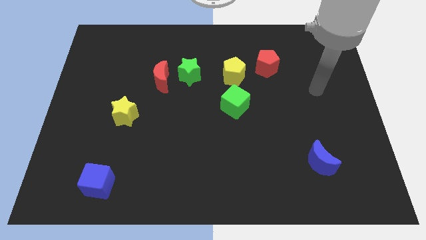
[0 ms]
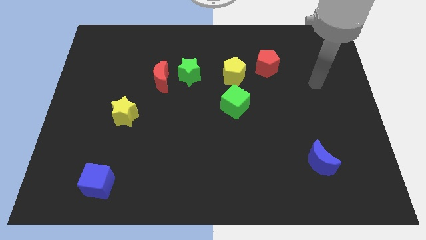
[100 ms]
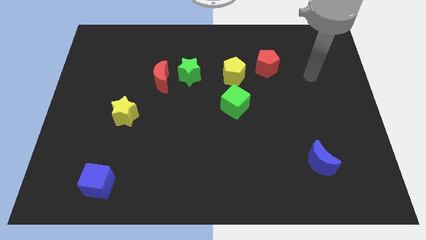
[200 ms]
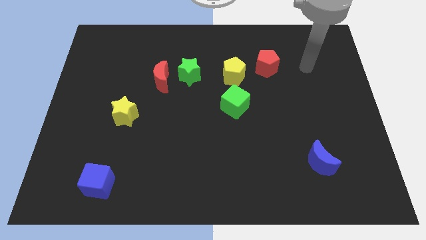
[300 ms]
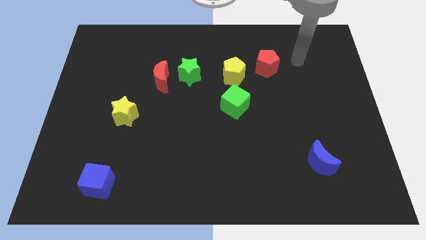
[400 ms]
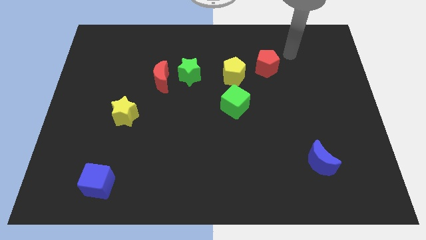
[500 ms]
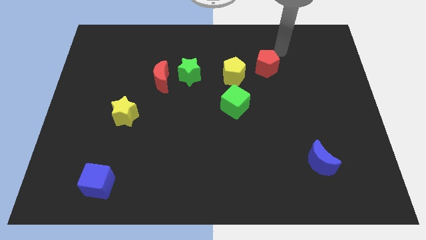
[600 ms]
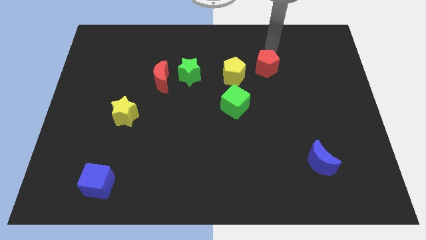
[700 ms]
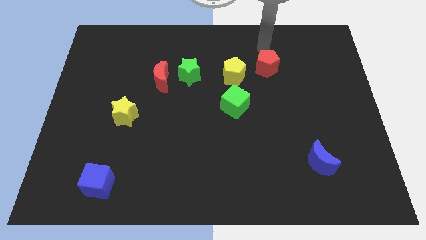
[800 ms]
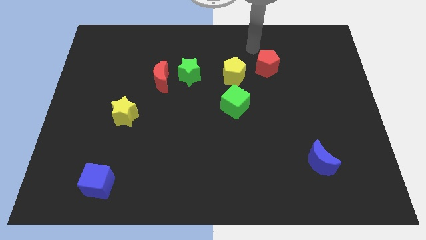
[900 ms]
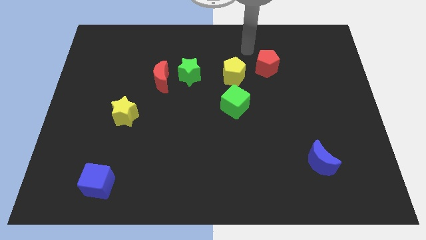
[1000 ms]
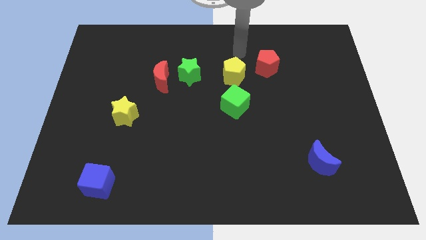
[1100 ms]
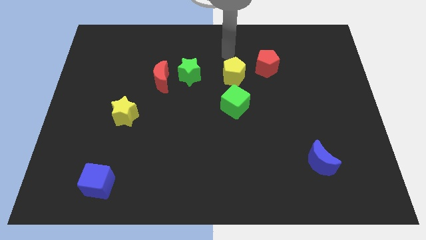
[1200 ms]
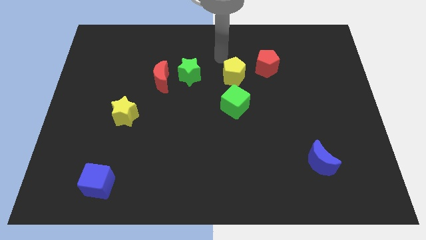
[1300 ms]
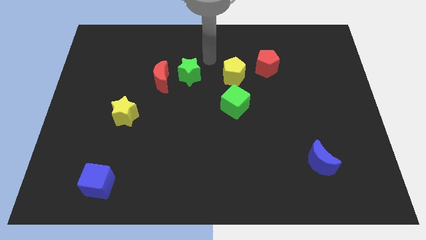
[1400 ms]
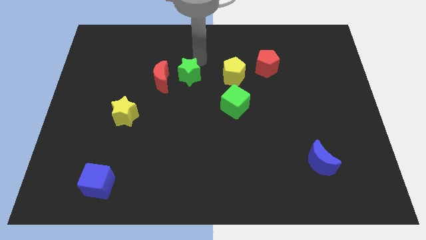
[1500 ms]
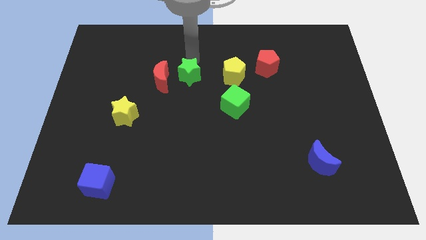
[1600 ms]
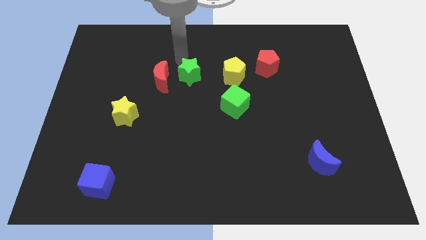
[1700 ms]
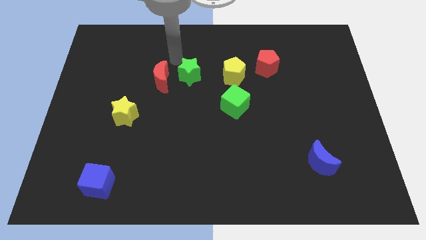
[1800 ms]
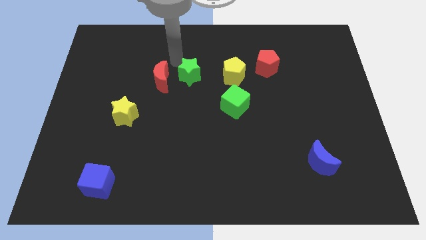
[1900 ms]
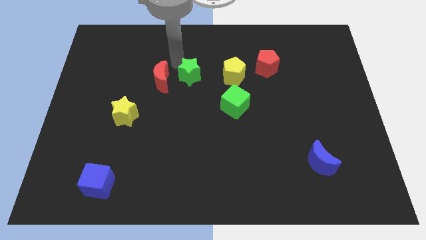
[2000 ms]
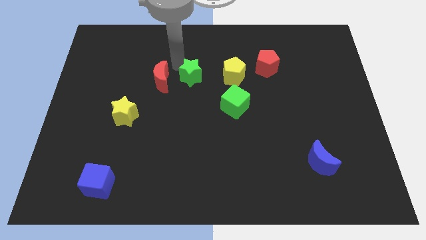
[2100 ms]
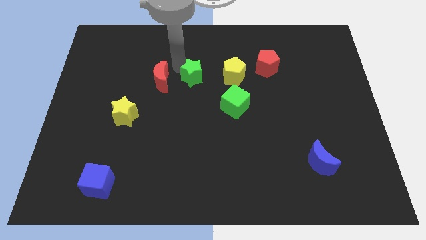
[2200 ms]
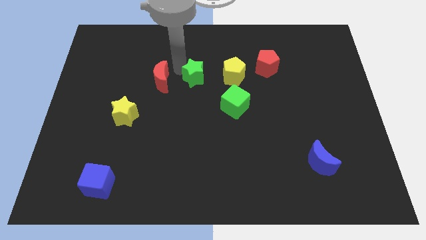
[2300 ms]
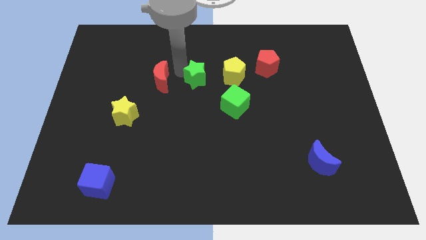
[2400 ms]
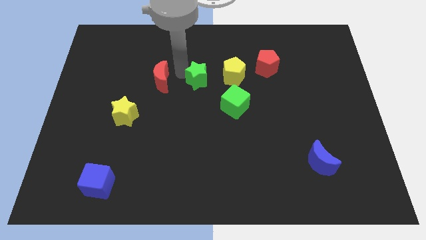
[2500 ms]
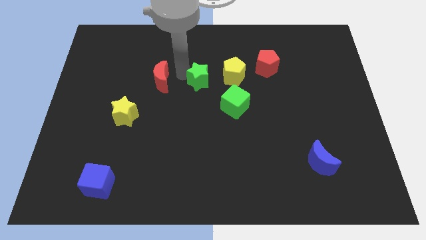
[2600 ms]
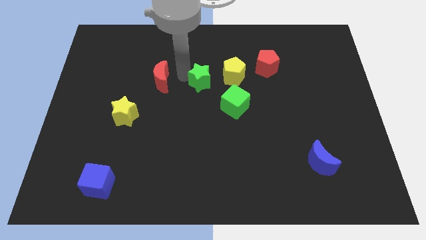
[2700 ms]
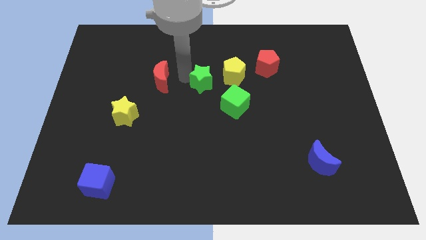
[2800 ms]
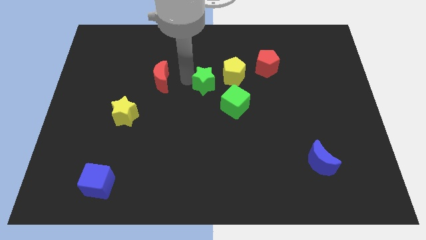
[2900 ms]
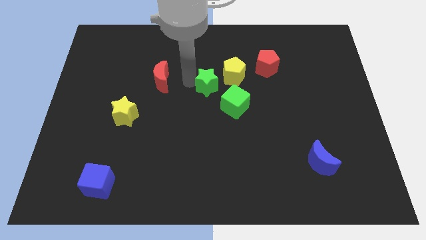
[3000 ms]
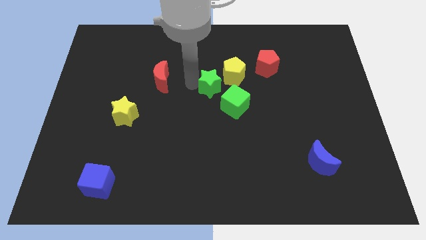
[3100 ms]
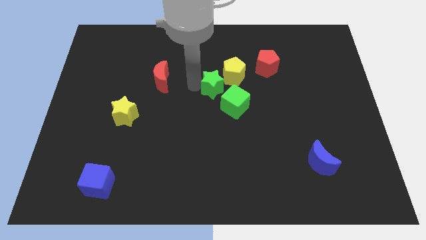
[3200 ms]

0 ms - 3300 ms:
move the green star a bit down and right

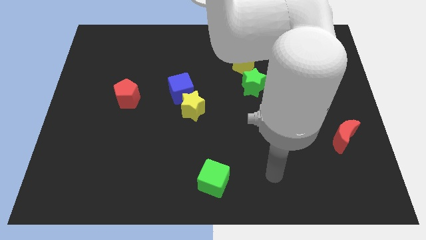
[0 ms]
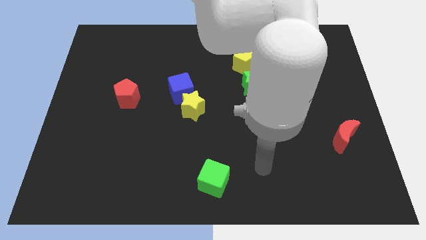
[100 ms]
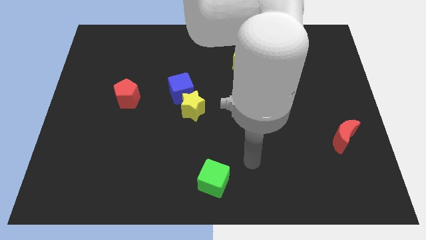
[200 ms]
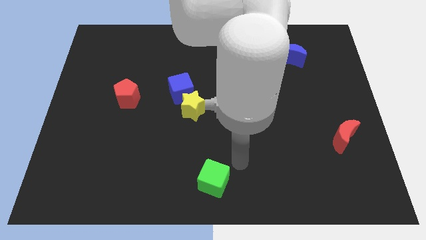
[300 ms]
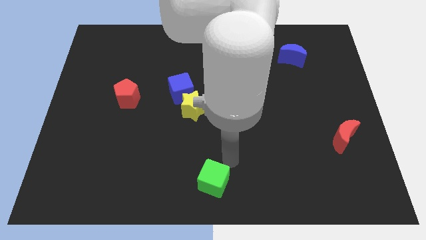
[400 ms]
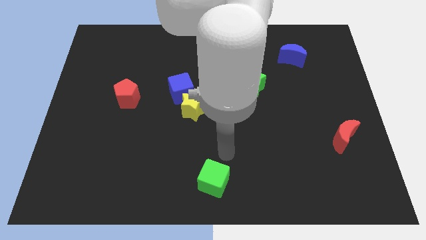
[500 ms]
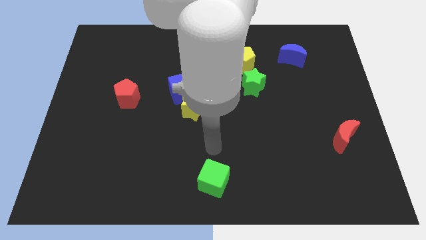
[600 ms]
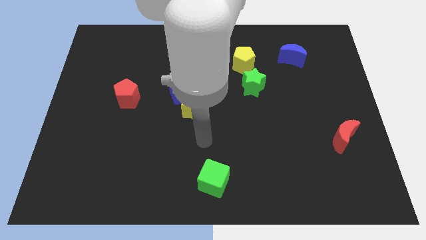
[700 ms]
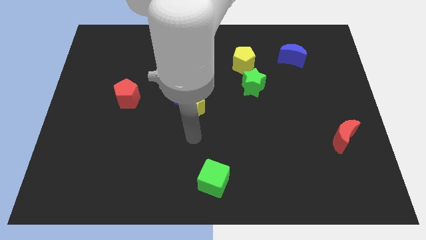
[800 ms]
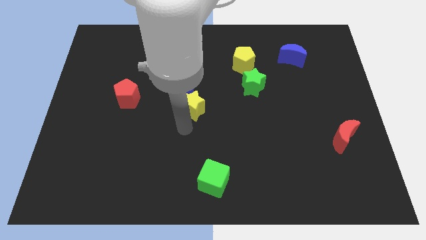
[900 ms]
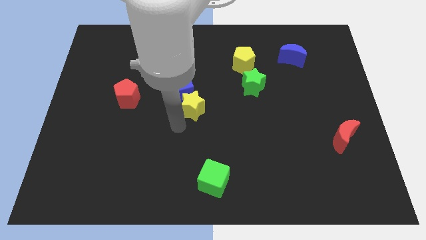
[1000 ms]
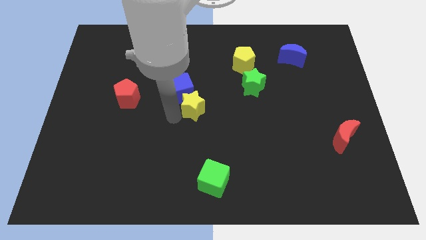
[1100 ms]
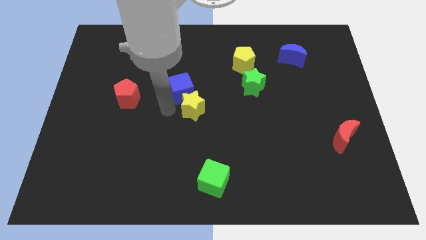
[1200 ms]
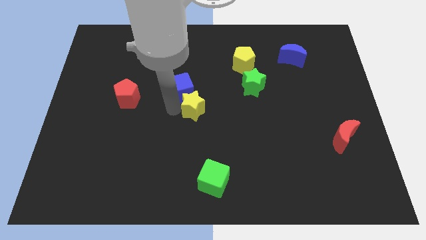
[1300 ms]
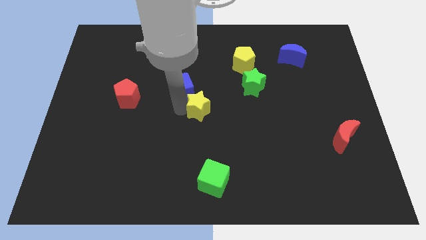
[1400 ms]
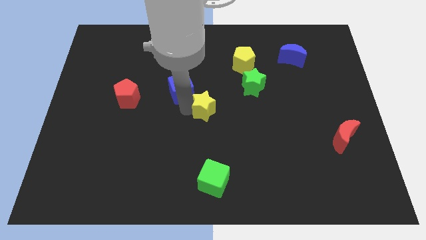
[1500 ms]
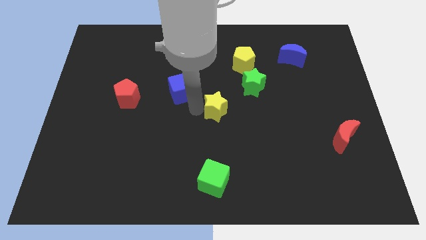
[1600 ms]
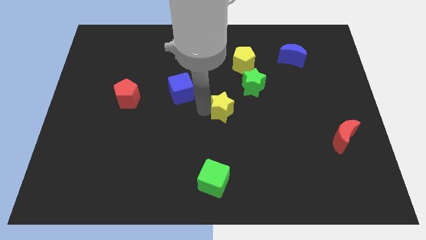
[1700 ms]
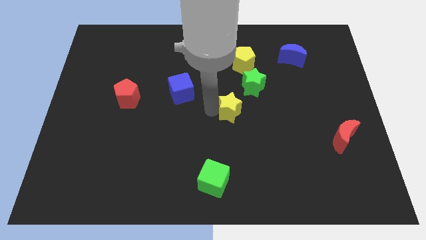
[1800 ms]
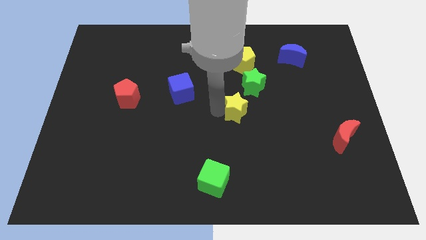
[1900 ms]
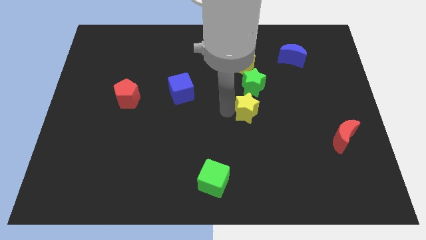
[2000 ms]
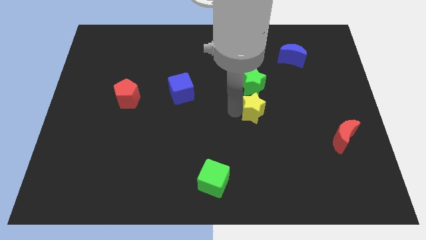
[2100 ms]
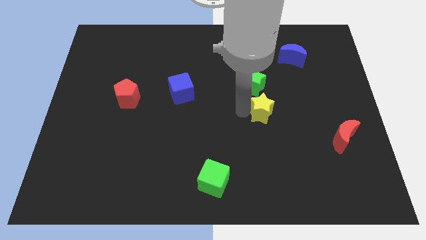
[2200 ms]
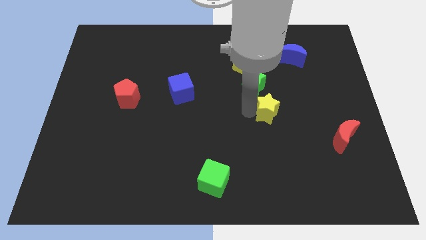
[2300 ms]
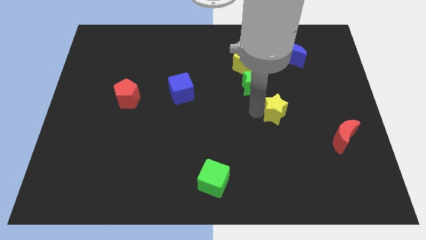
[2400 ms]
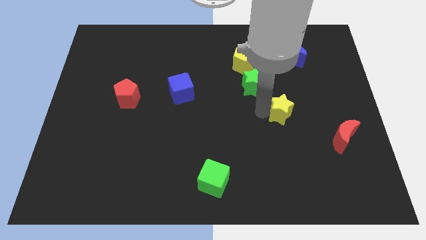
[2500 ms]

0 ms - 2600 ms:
move the yellow star right

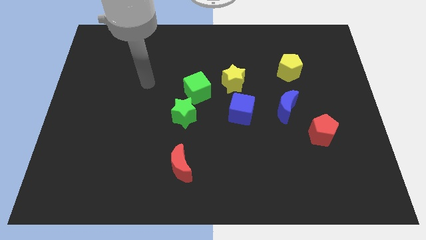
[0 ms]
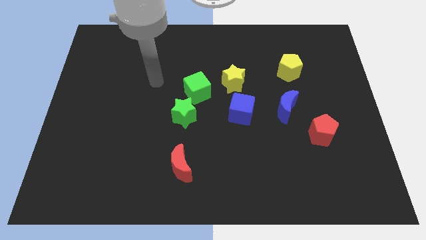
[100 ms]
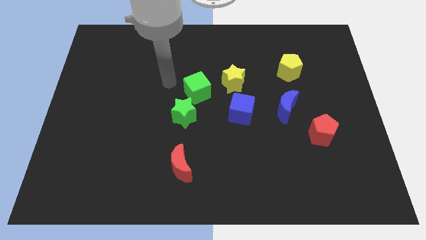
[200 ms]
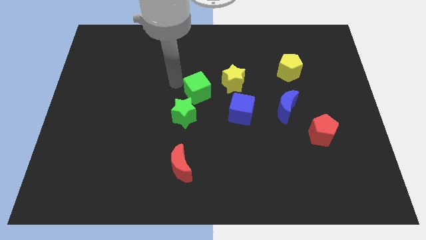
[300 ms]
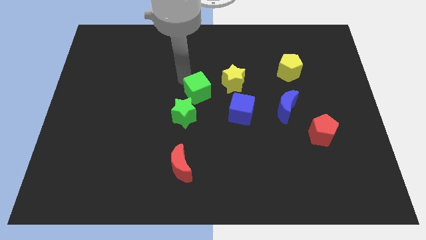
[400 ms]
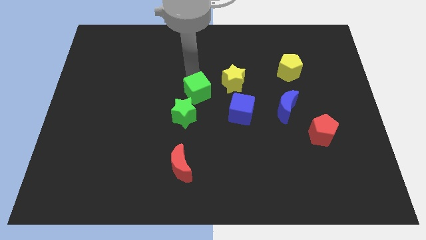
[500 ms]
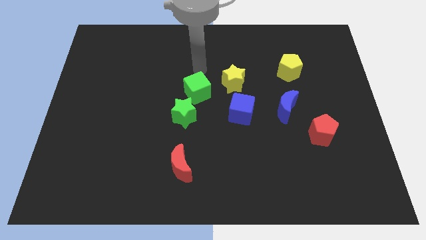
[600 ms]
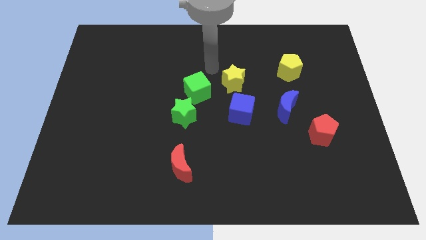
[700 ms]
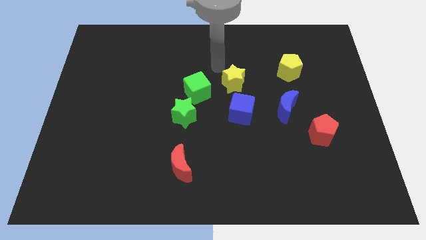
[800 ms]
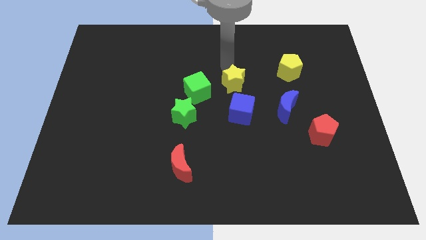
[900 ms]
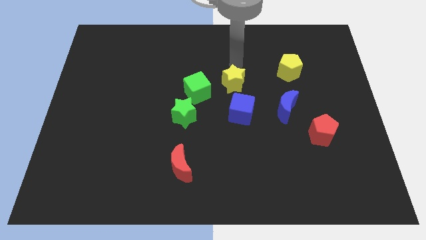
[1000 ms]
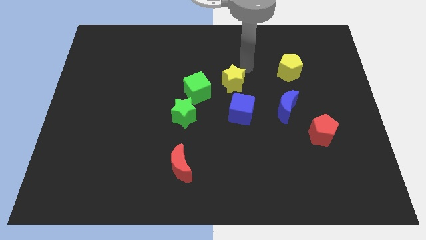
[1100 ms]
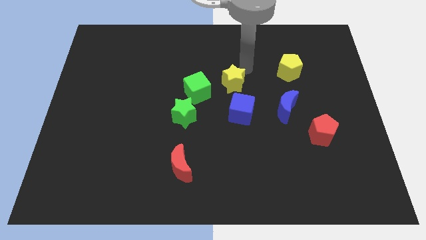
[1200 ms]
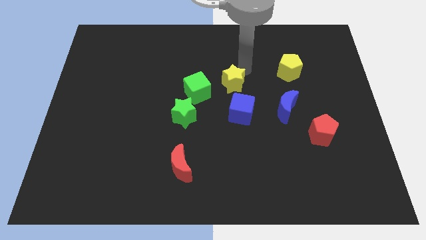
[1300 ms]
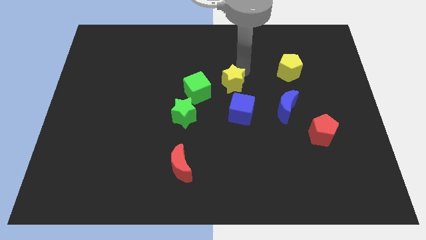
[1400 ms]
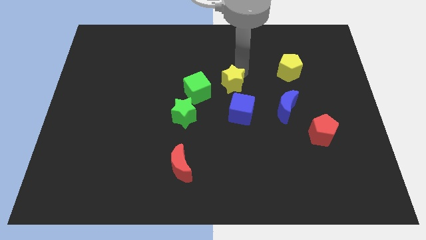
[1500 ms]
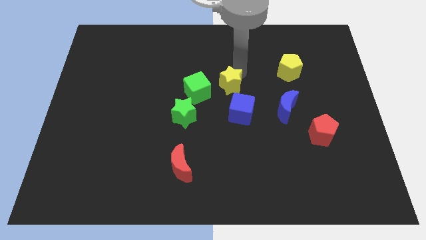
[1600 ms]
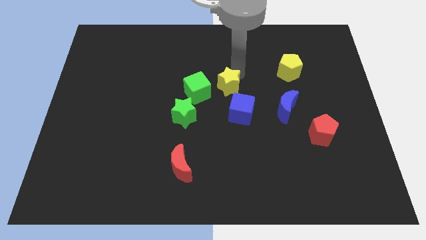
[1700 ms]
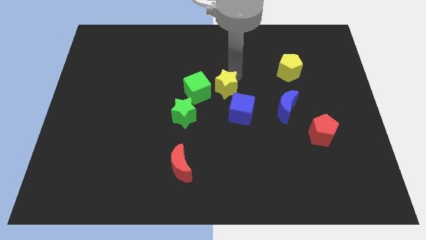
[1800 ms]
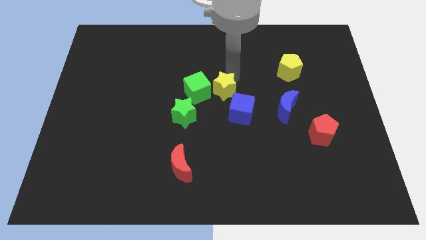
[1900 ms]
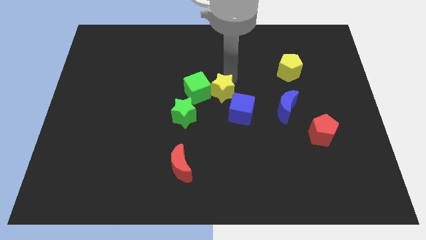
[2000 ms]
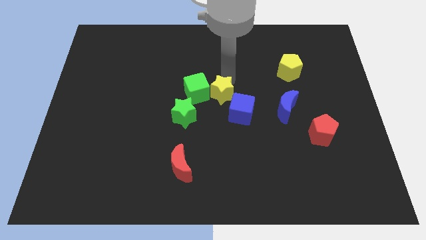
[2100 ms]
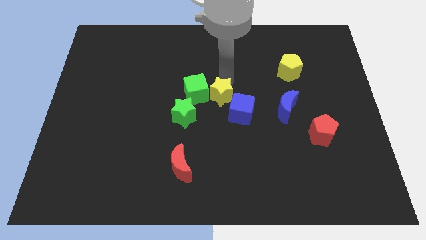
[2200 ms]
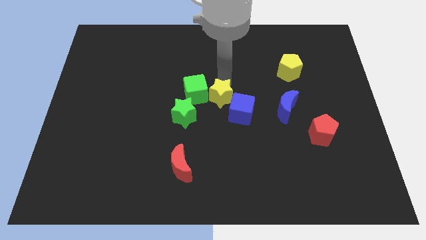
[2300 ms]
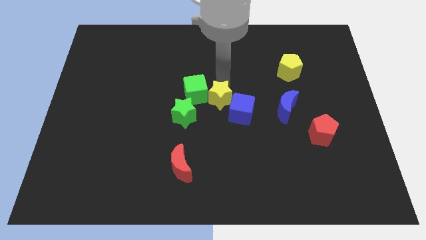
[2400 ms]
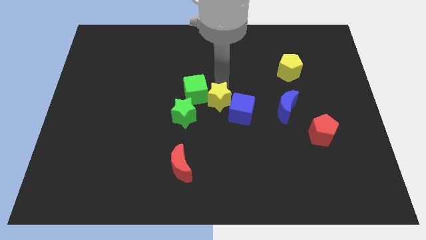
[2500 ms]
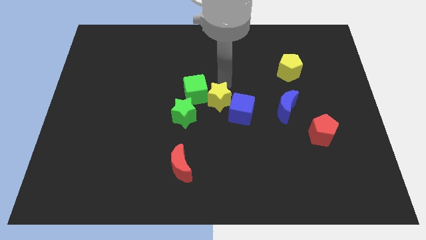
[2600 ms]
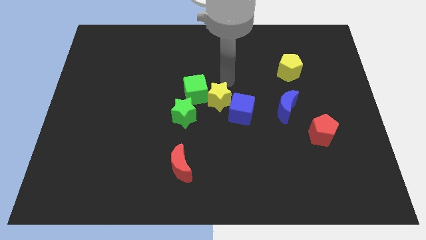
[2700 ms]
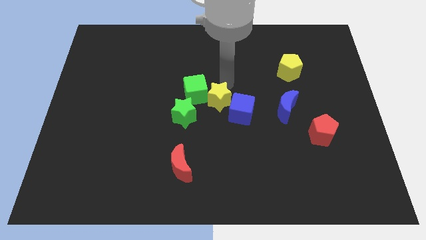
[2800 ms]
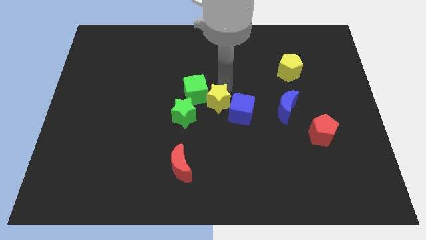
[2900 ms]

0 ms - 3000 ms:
slide the yellow star downwards and left somewhat
